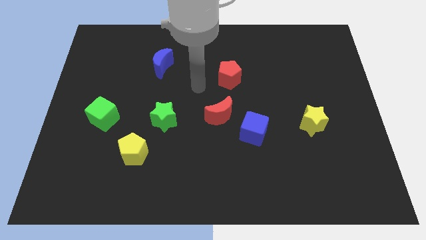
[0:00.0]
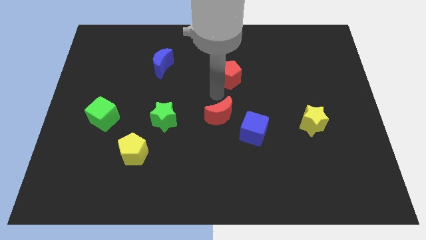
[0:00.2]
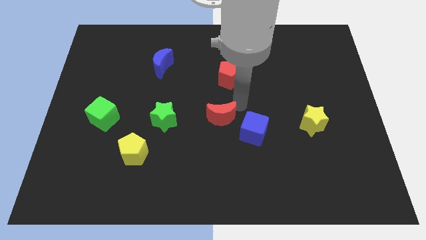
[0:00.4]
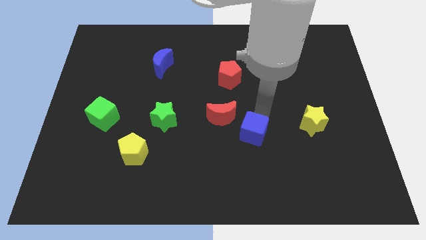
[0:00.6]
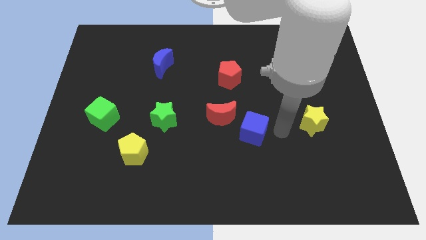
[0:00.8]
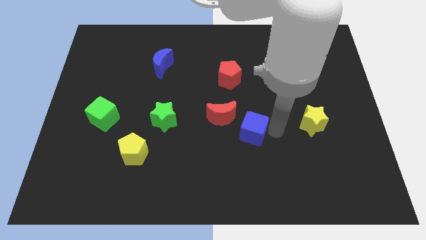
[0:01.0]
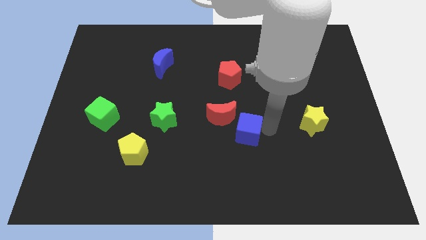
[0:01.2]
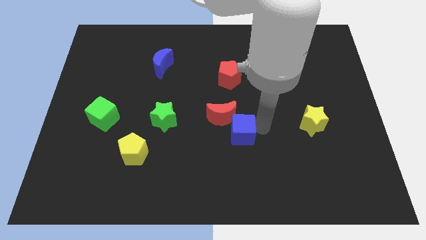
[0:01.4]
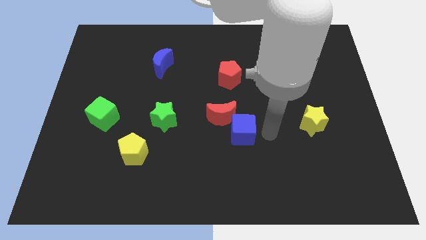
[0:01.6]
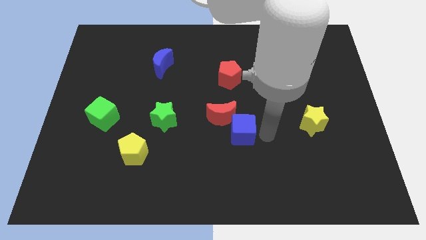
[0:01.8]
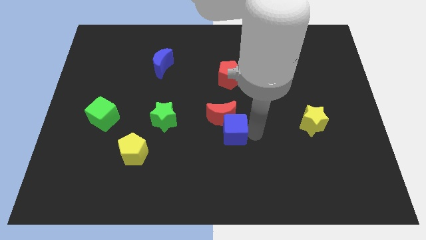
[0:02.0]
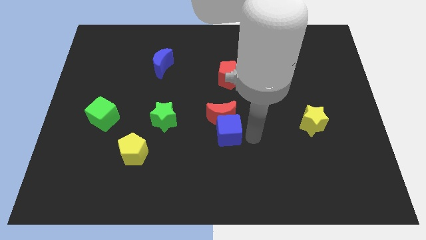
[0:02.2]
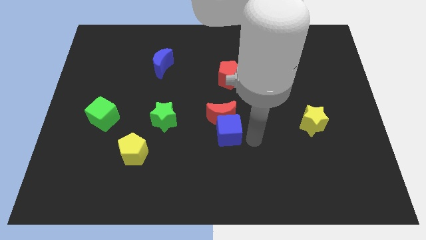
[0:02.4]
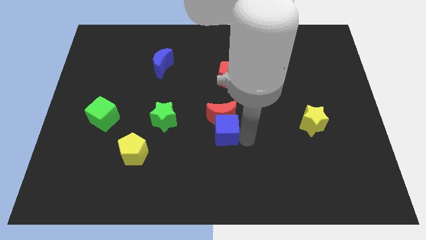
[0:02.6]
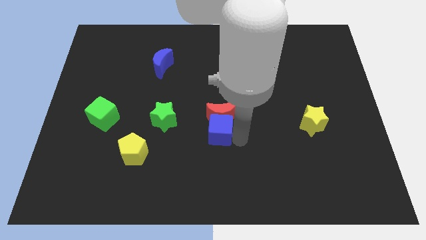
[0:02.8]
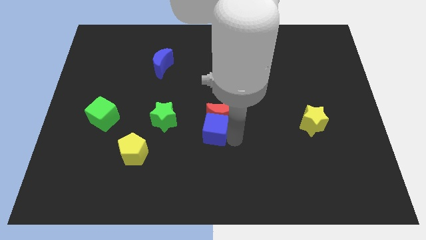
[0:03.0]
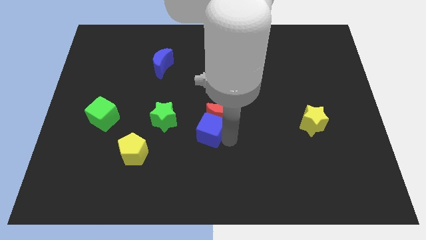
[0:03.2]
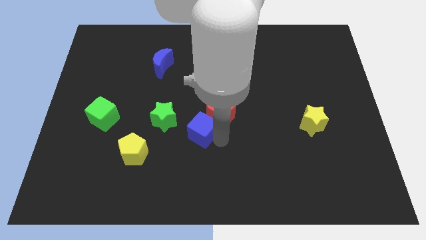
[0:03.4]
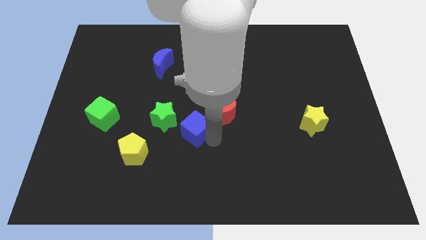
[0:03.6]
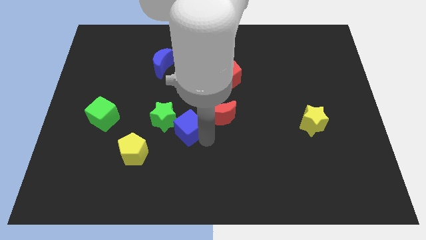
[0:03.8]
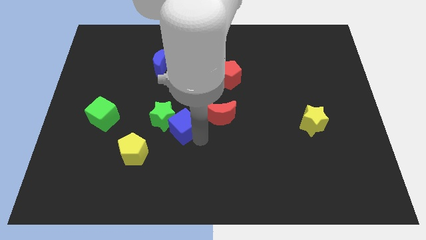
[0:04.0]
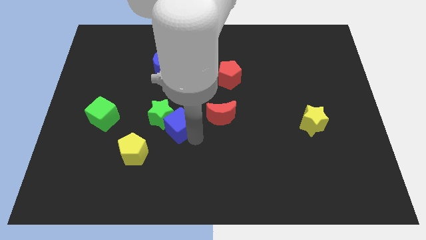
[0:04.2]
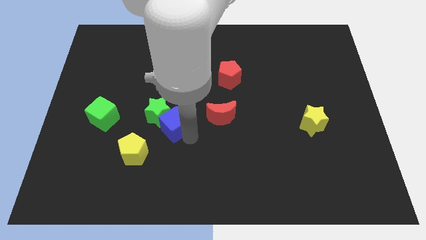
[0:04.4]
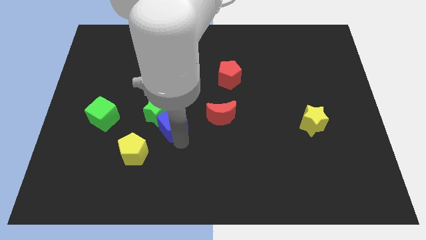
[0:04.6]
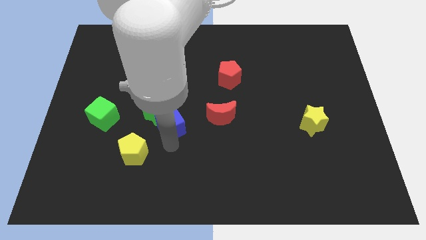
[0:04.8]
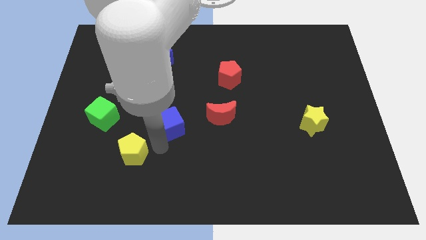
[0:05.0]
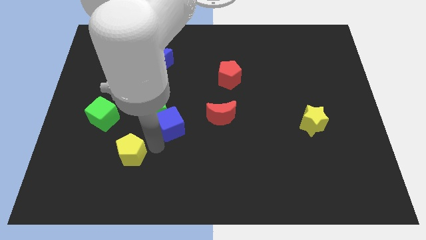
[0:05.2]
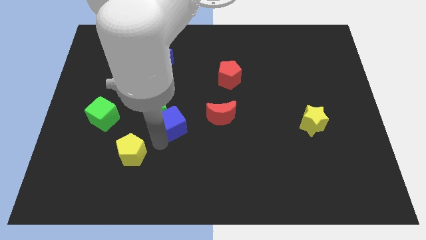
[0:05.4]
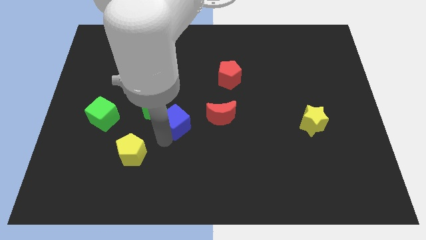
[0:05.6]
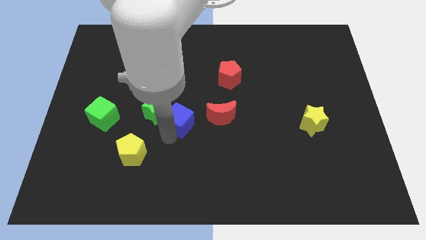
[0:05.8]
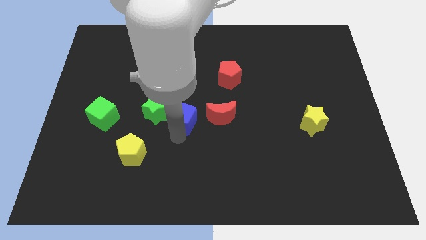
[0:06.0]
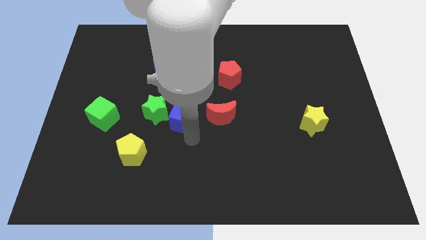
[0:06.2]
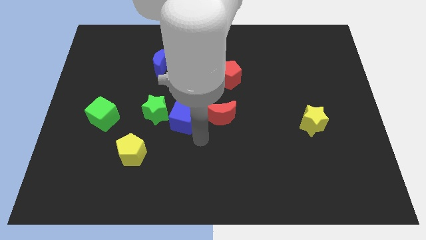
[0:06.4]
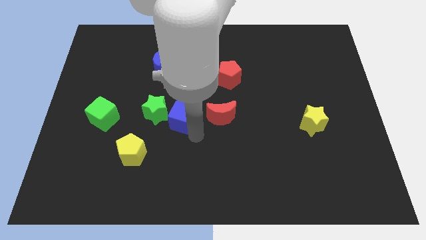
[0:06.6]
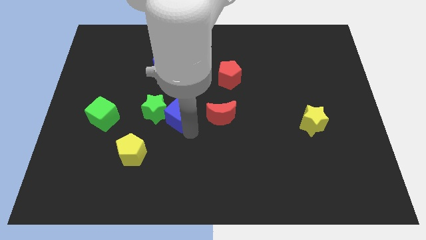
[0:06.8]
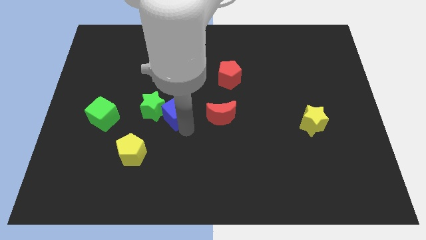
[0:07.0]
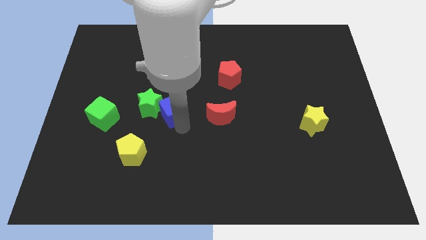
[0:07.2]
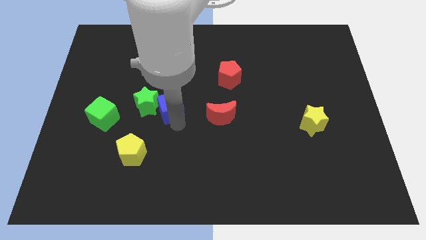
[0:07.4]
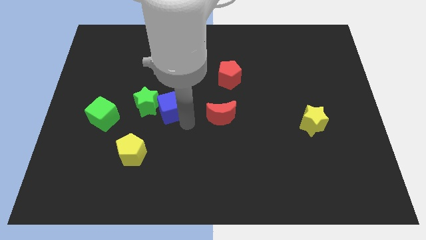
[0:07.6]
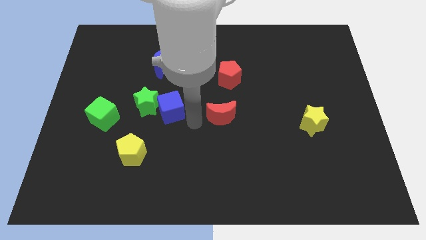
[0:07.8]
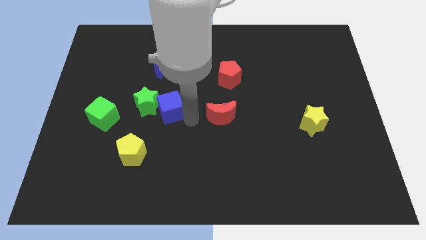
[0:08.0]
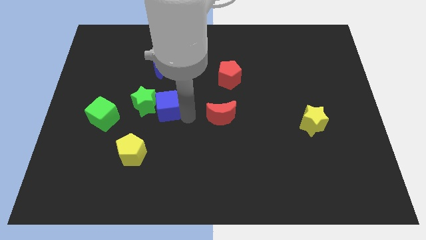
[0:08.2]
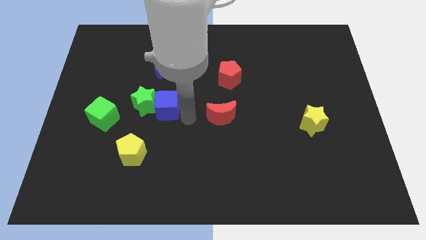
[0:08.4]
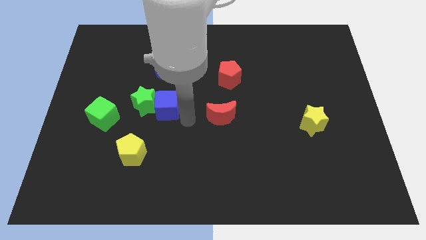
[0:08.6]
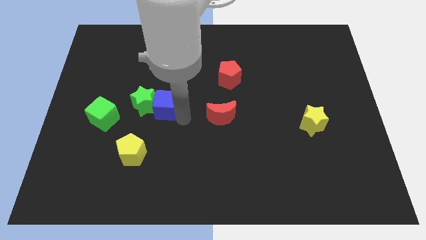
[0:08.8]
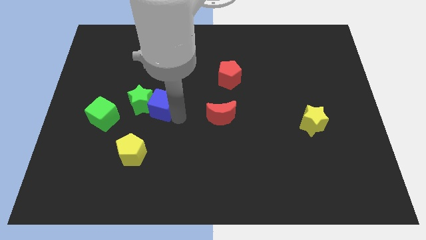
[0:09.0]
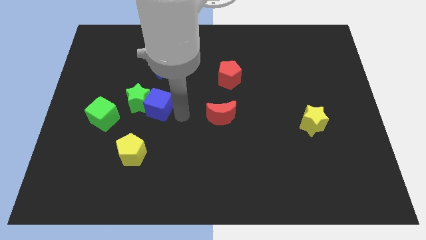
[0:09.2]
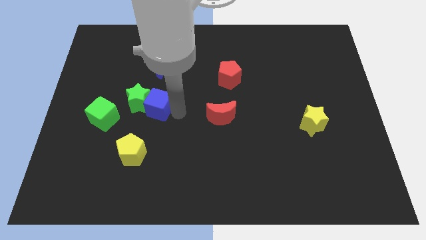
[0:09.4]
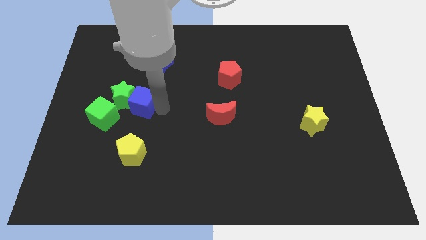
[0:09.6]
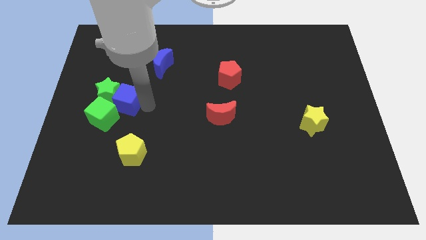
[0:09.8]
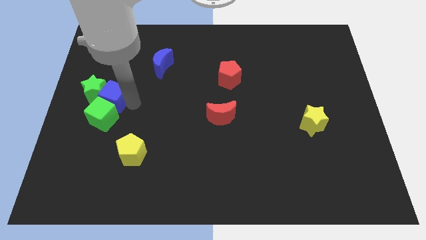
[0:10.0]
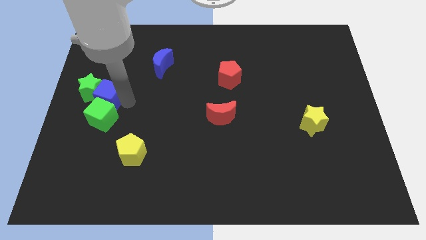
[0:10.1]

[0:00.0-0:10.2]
push the blue cube to the left side of the board

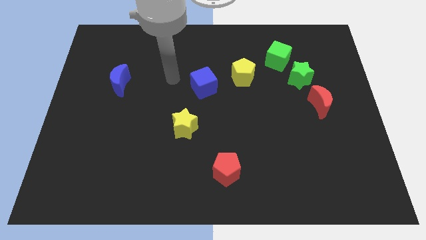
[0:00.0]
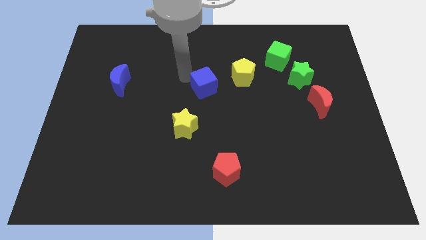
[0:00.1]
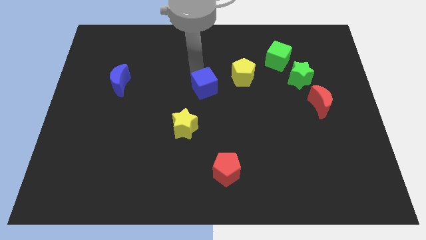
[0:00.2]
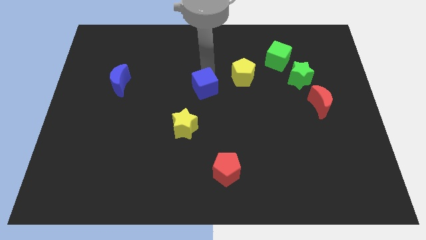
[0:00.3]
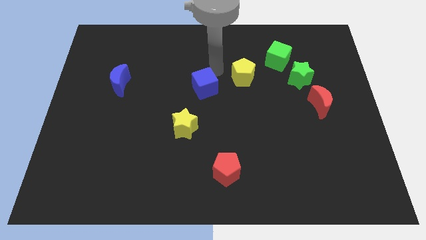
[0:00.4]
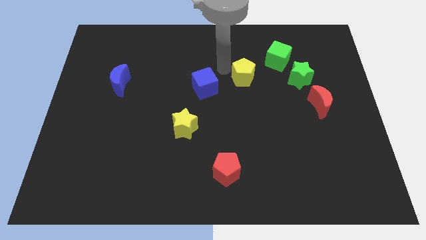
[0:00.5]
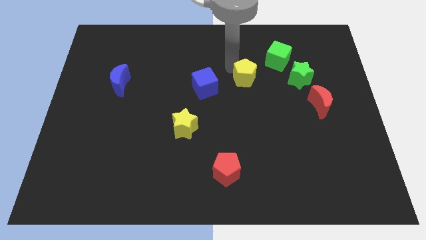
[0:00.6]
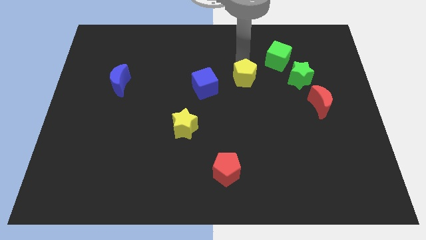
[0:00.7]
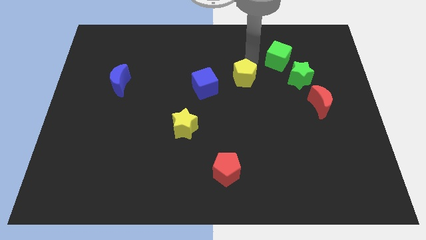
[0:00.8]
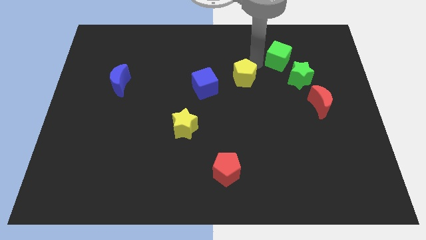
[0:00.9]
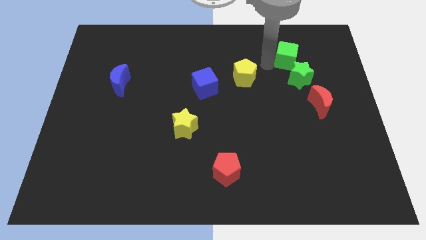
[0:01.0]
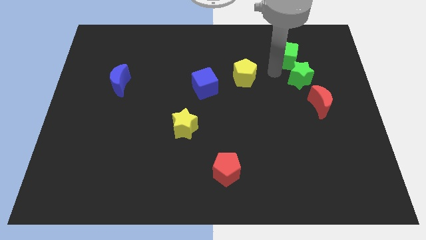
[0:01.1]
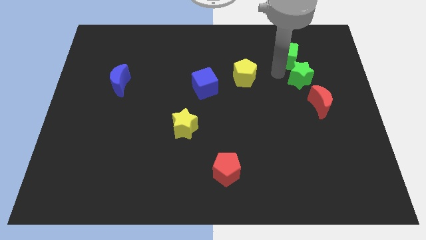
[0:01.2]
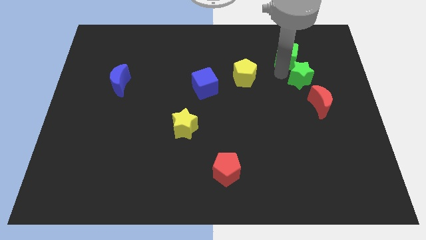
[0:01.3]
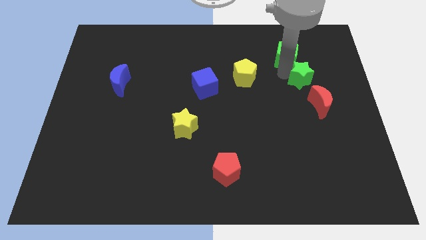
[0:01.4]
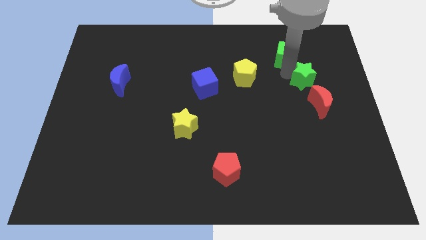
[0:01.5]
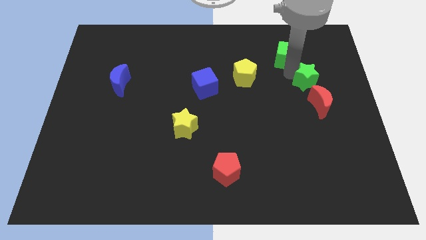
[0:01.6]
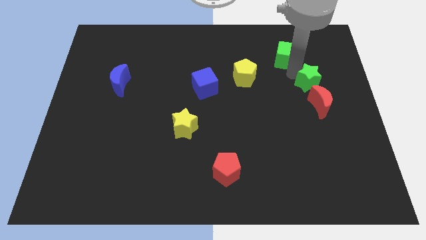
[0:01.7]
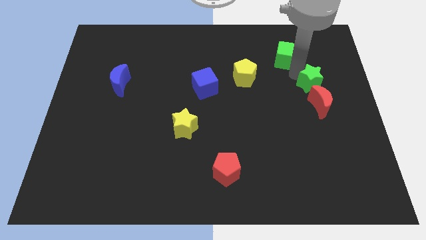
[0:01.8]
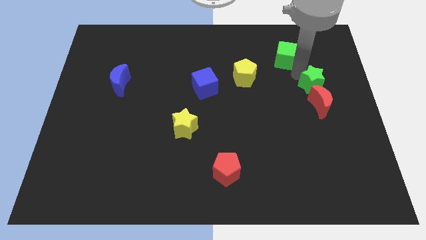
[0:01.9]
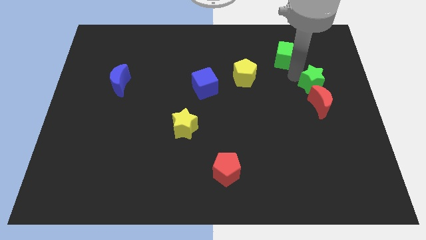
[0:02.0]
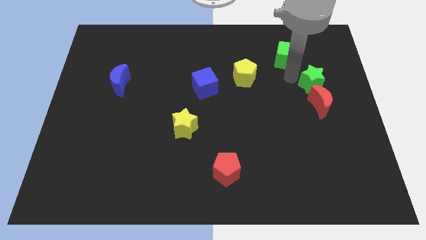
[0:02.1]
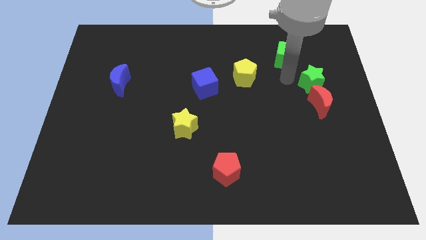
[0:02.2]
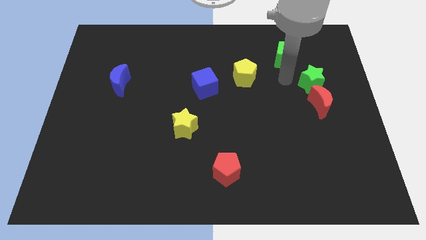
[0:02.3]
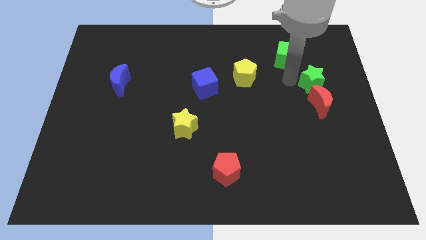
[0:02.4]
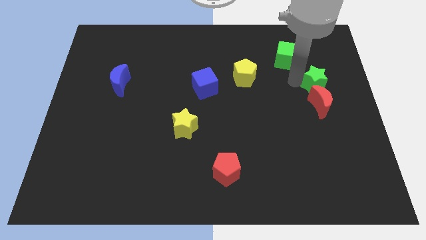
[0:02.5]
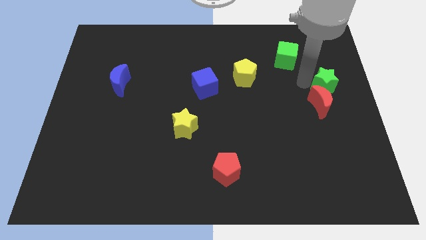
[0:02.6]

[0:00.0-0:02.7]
move the green star to the right side
